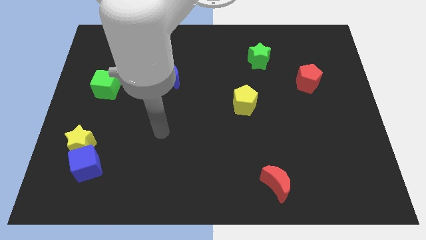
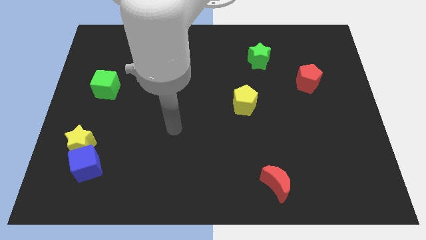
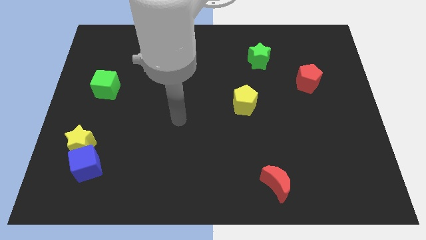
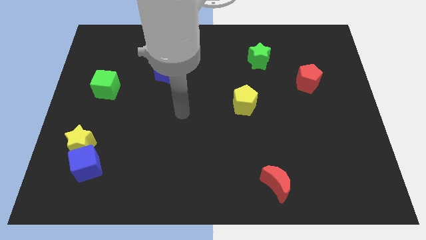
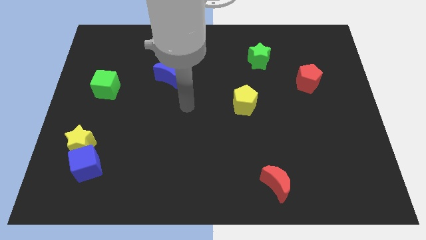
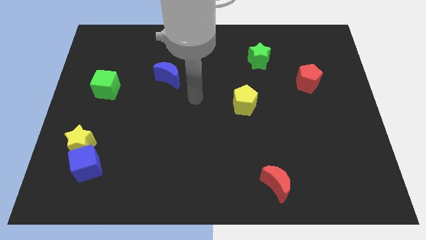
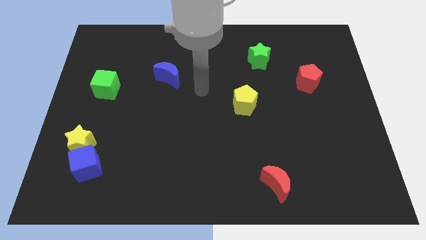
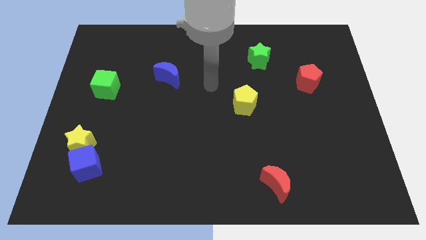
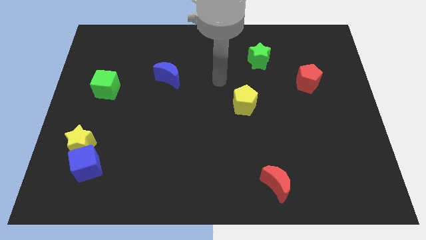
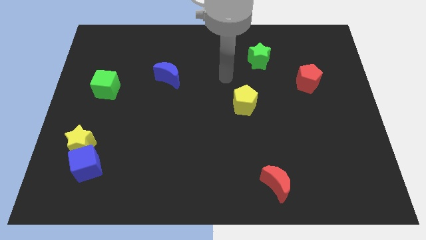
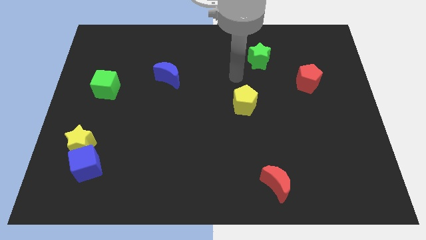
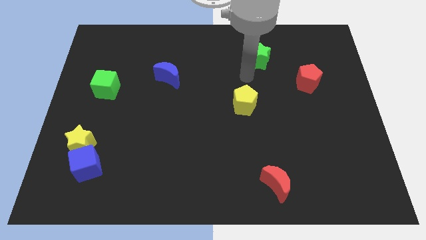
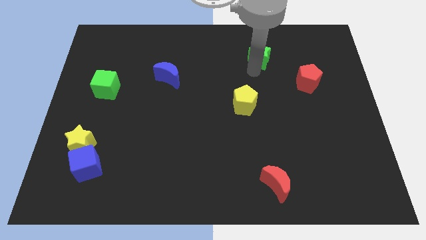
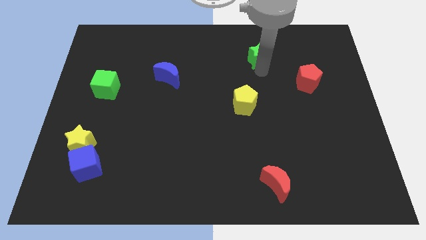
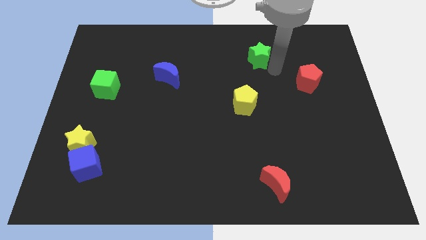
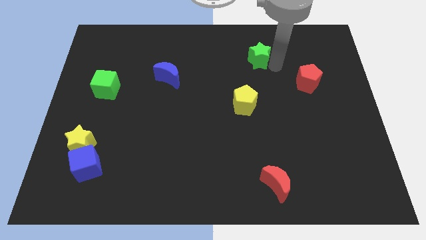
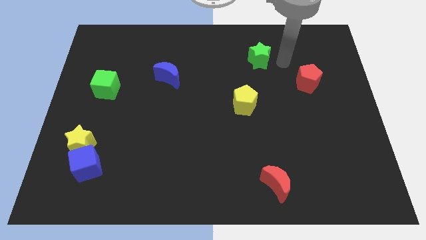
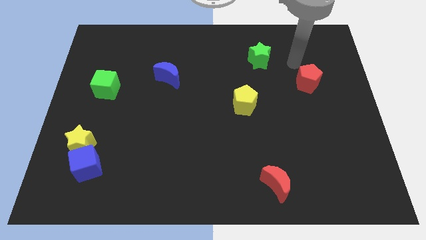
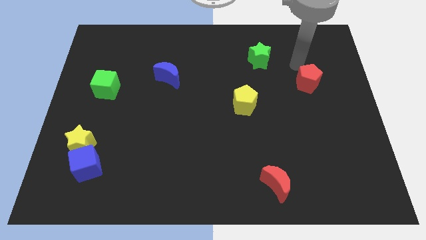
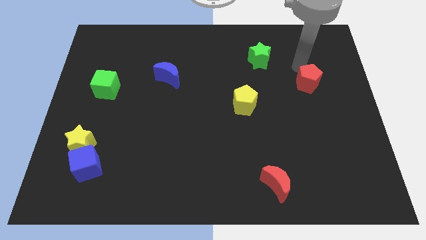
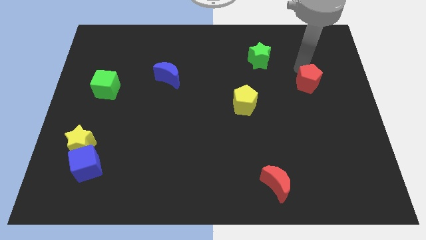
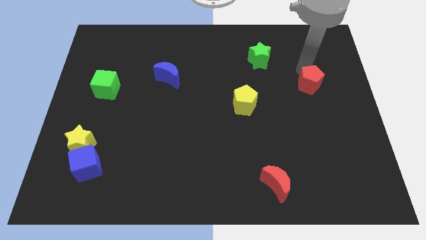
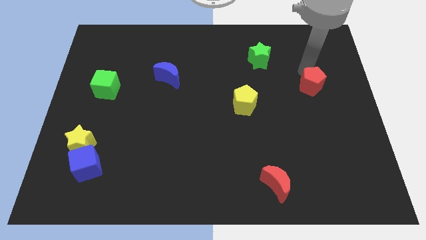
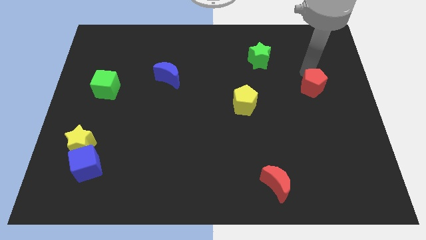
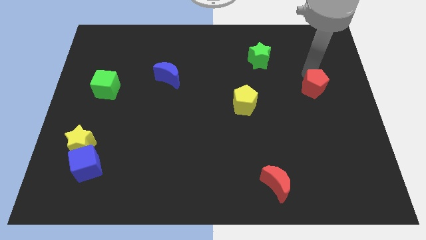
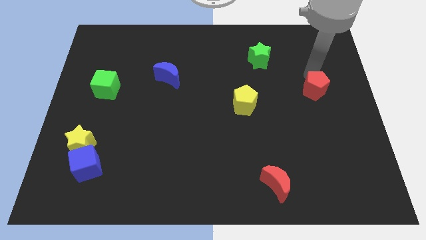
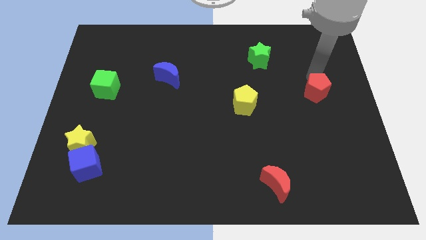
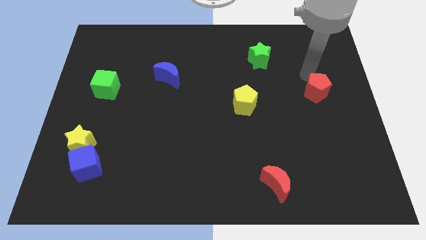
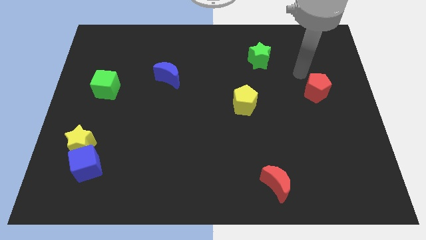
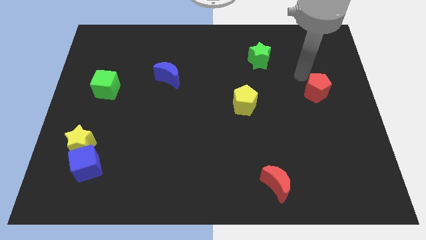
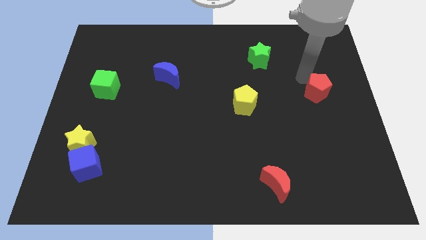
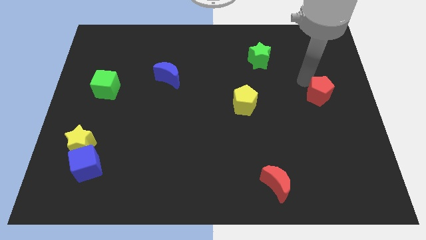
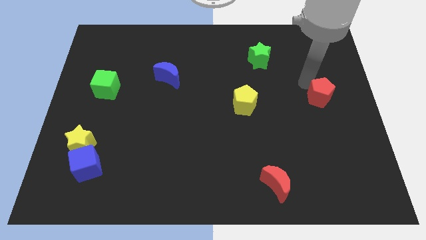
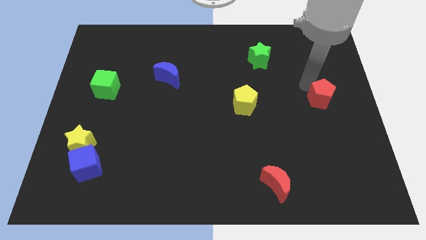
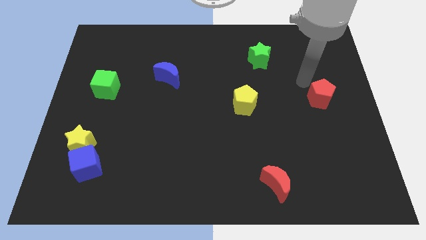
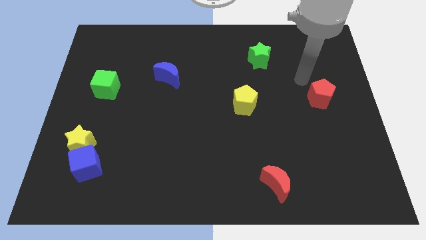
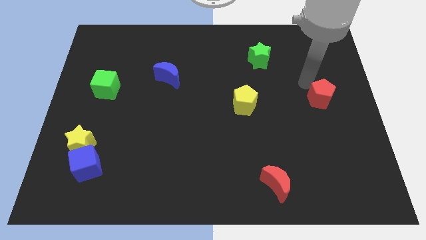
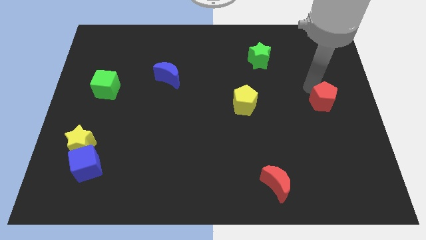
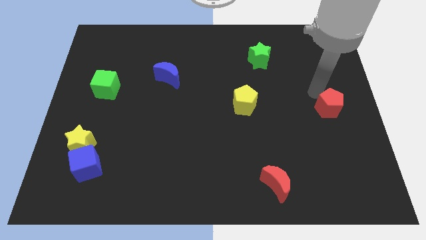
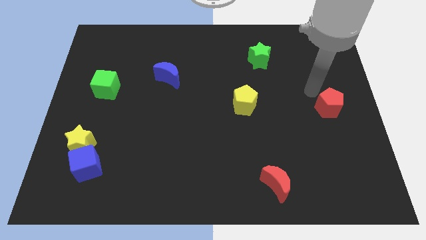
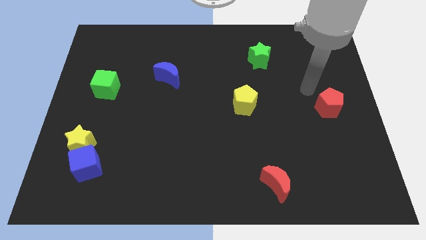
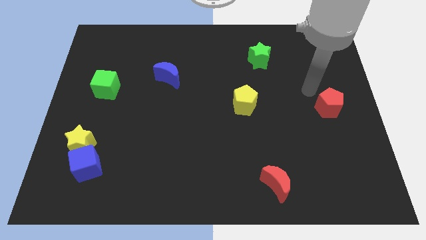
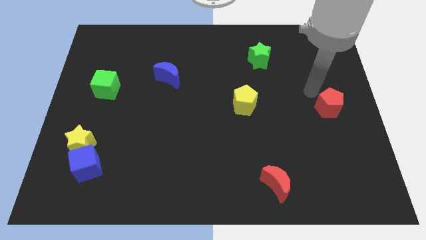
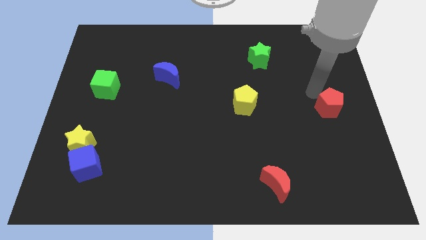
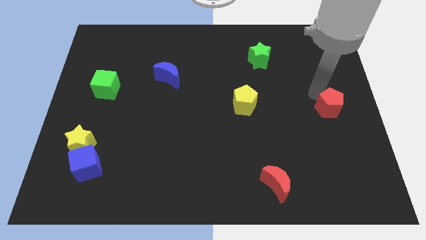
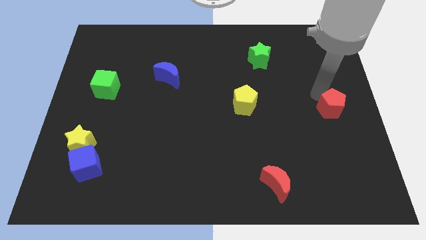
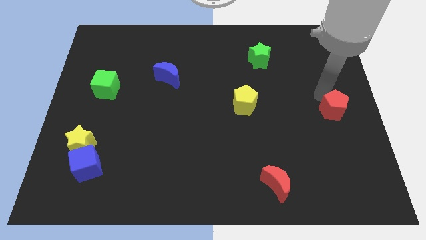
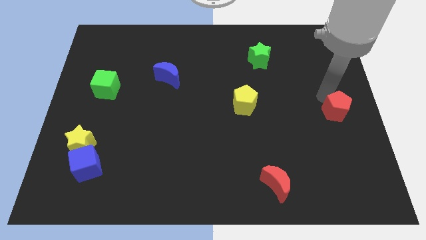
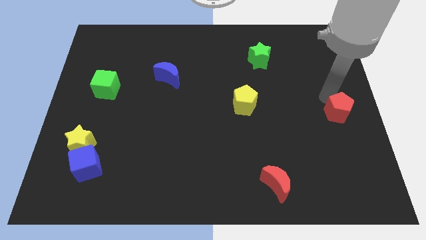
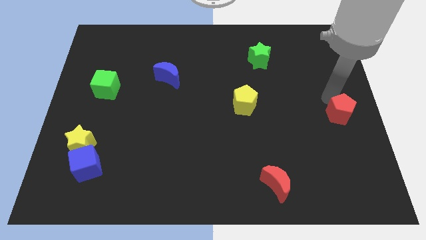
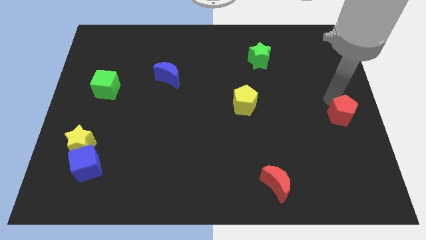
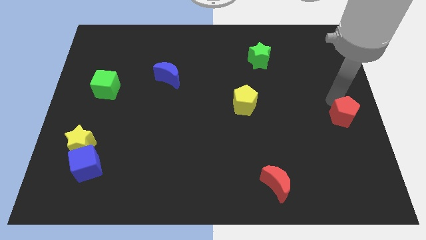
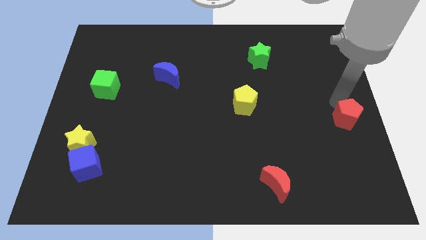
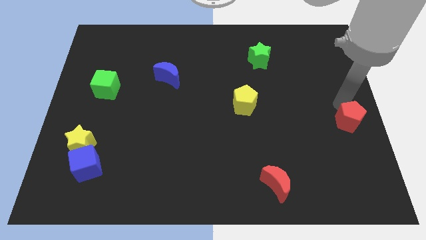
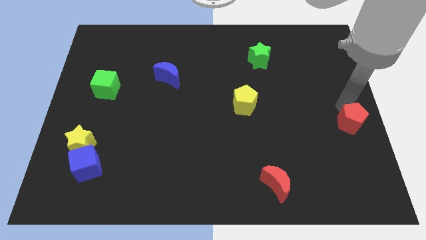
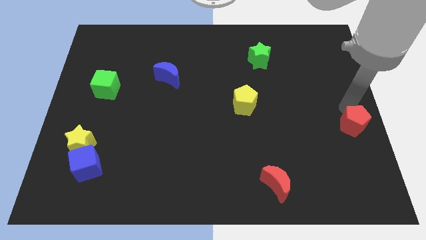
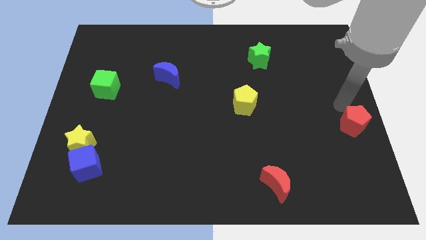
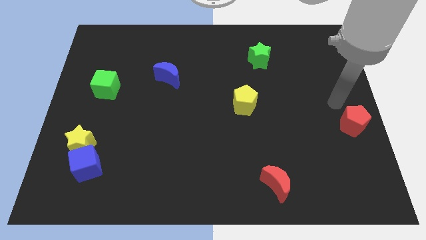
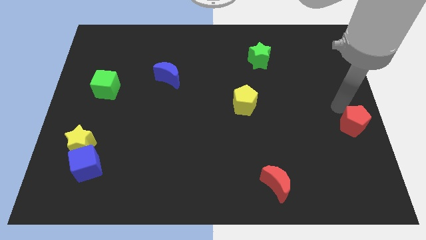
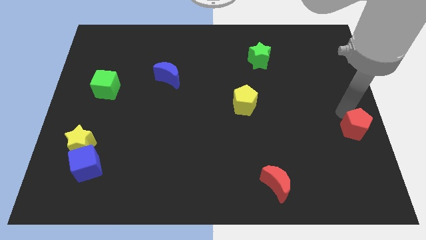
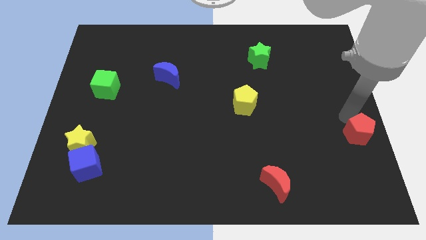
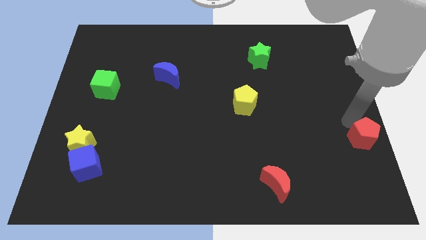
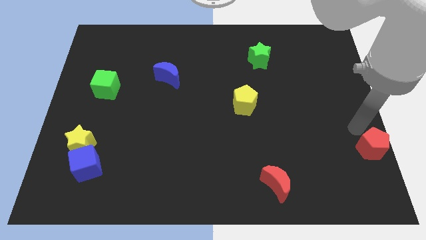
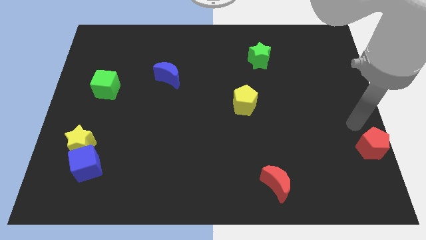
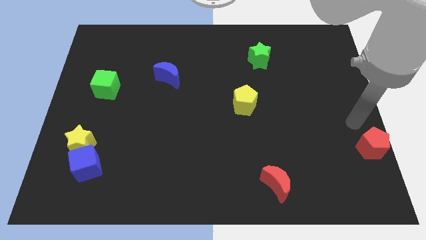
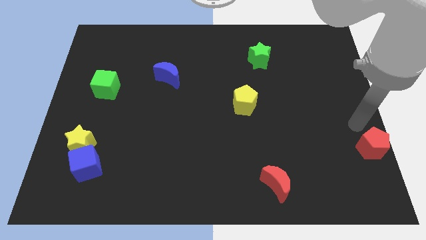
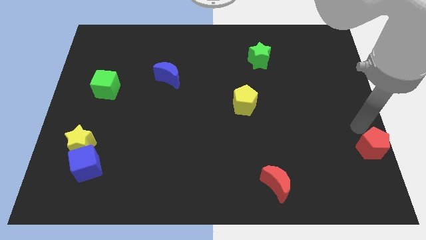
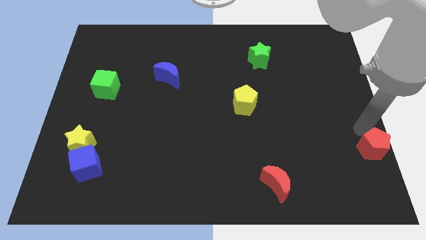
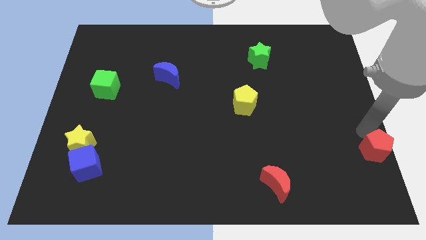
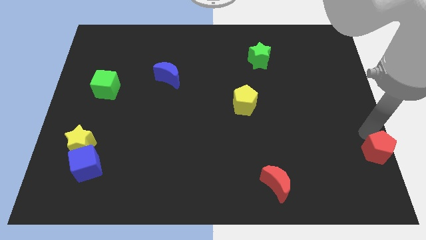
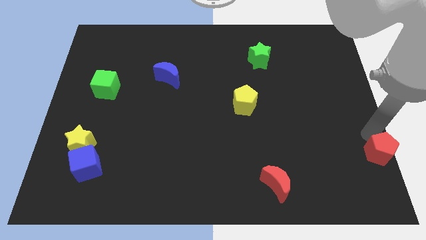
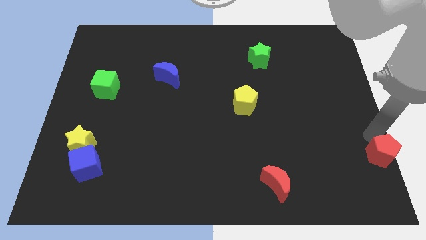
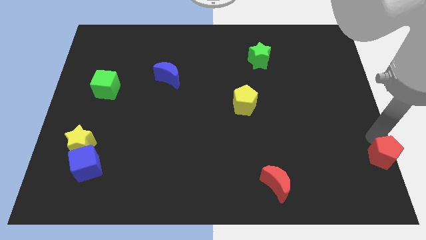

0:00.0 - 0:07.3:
slide the red pentagon to the bottom right
